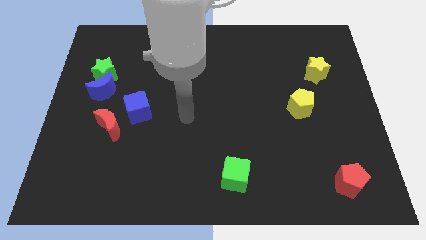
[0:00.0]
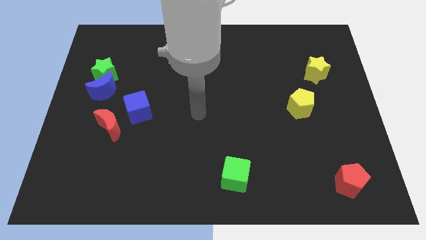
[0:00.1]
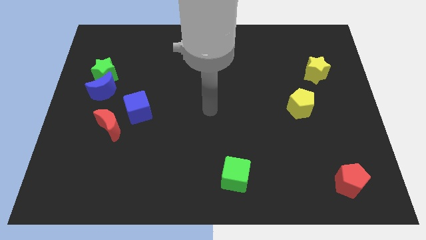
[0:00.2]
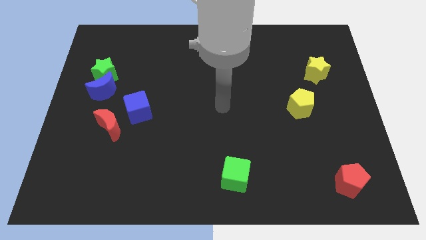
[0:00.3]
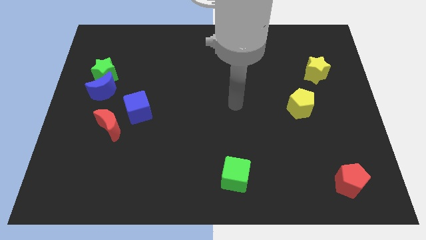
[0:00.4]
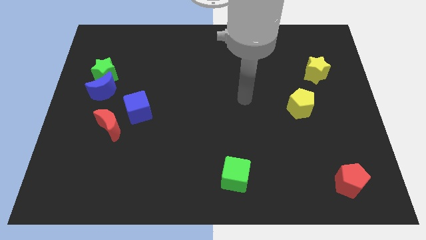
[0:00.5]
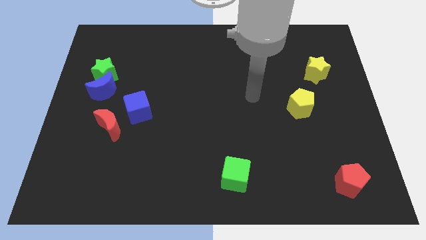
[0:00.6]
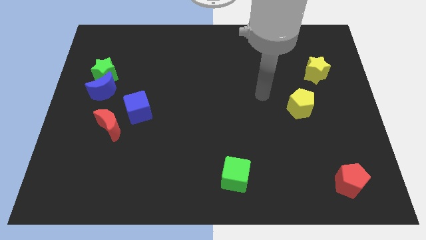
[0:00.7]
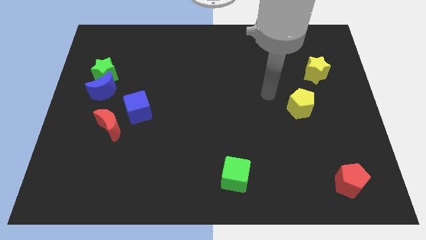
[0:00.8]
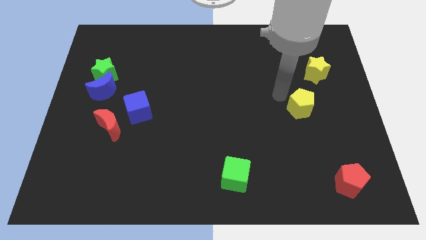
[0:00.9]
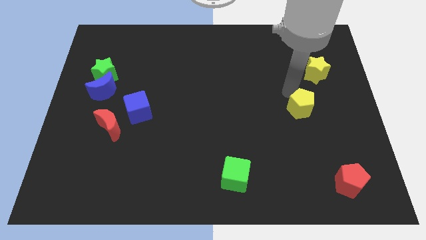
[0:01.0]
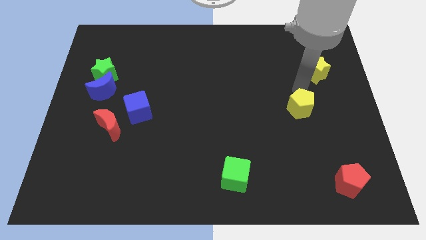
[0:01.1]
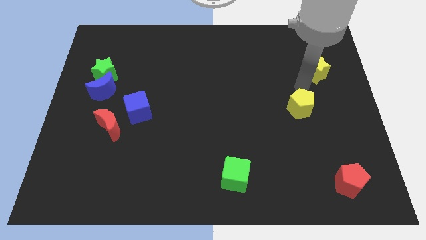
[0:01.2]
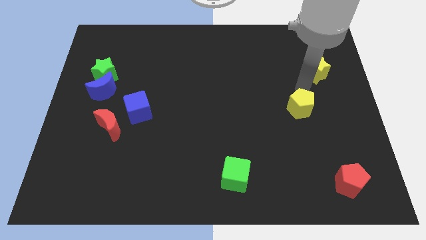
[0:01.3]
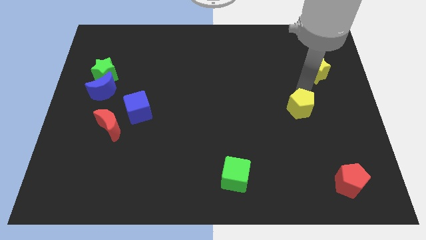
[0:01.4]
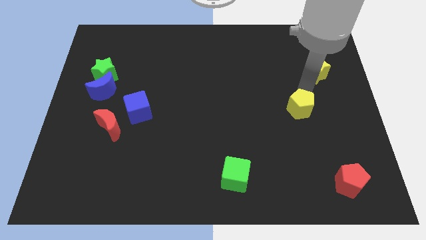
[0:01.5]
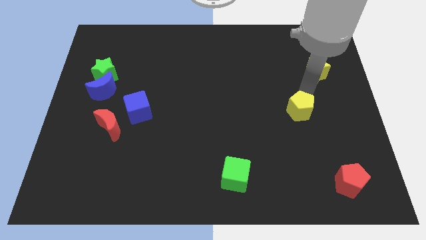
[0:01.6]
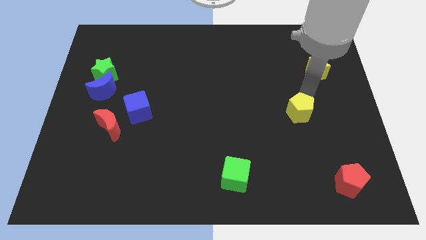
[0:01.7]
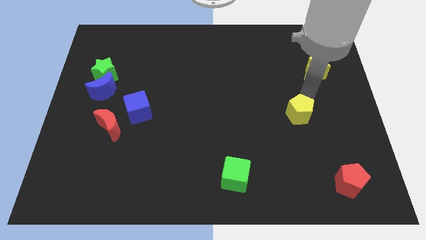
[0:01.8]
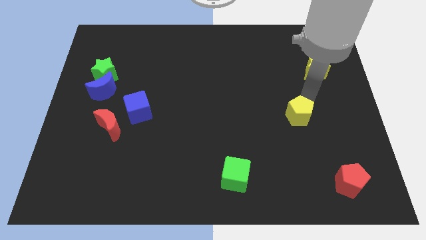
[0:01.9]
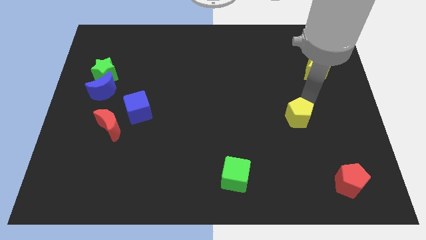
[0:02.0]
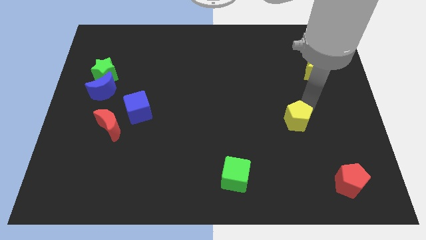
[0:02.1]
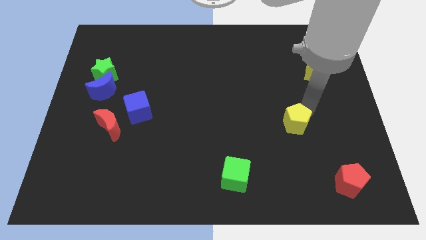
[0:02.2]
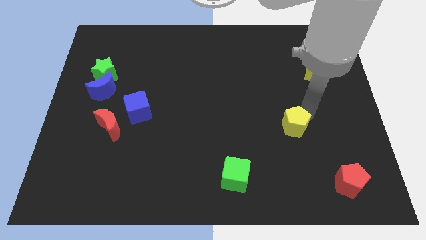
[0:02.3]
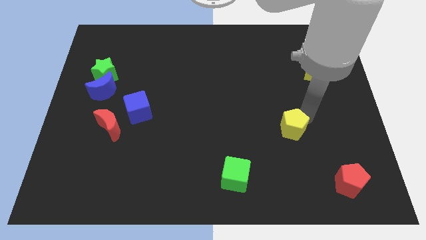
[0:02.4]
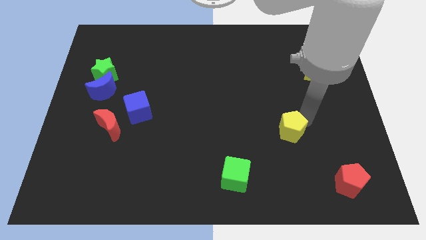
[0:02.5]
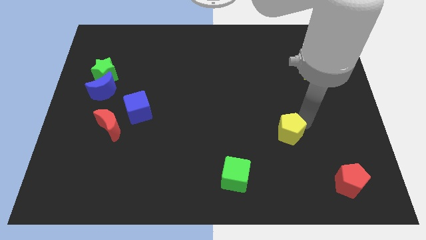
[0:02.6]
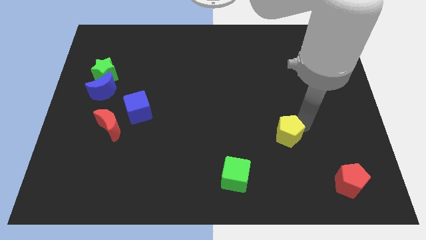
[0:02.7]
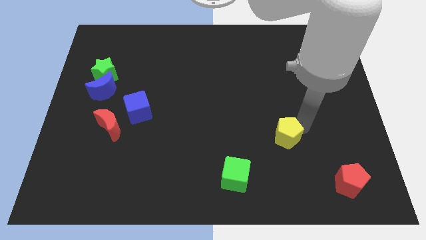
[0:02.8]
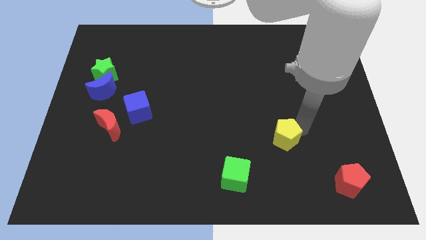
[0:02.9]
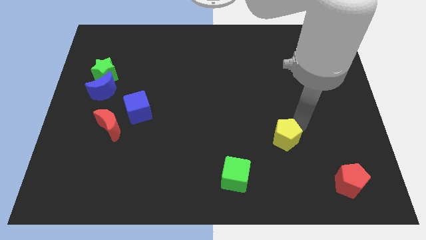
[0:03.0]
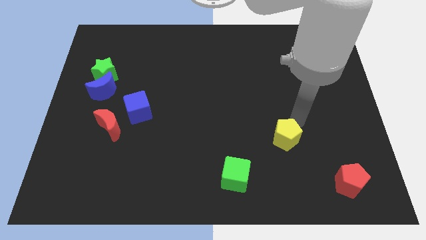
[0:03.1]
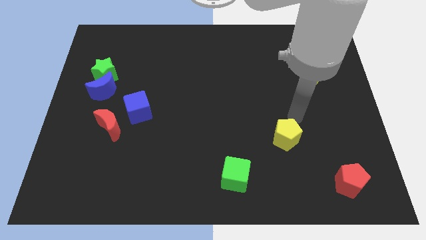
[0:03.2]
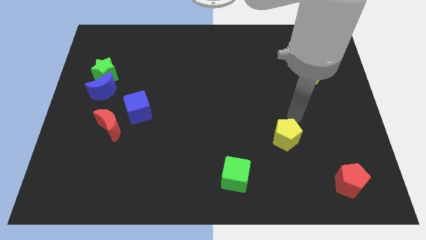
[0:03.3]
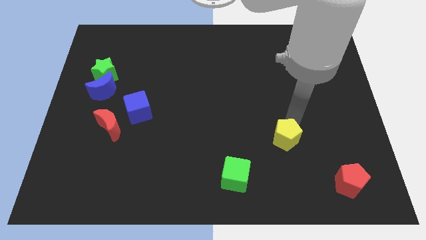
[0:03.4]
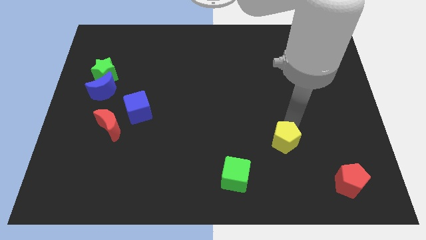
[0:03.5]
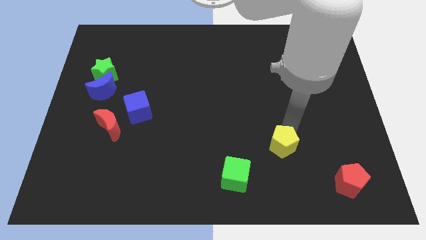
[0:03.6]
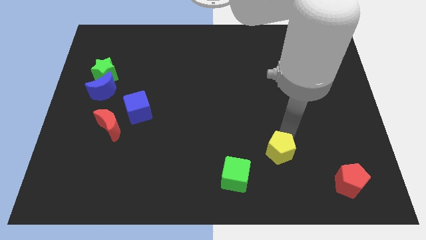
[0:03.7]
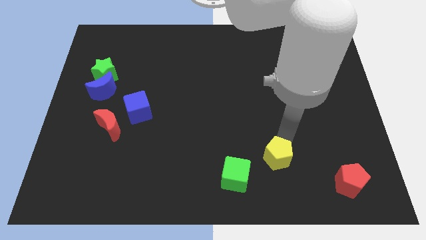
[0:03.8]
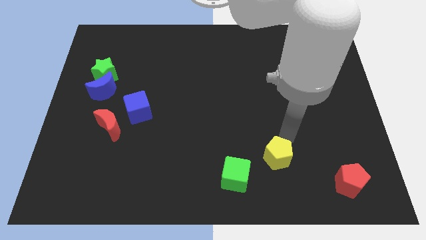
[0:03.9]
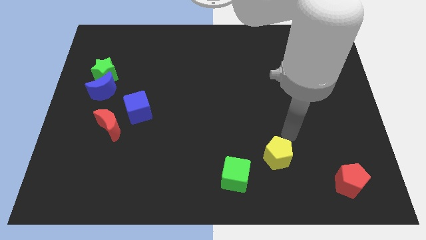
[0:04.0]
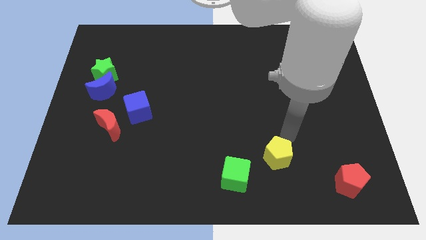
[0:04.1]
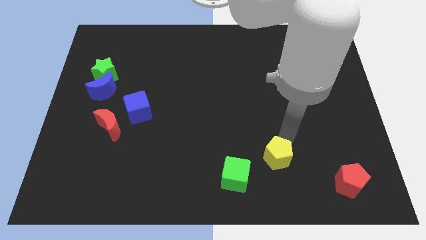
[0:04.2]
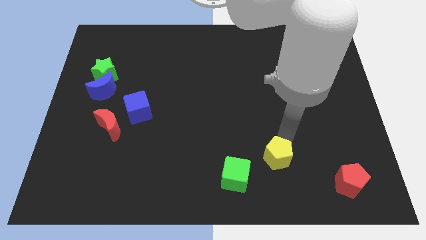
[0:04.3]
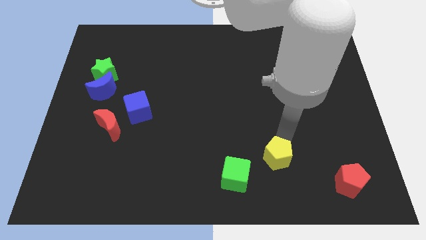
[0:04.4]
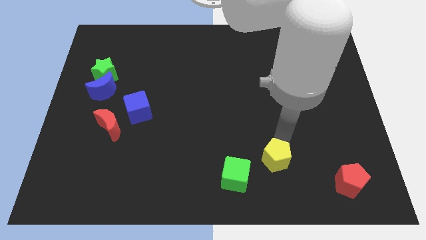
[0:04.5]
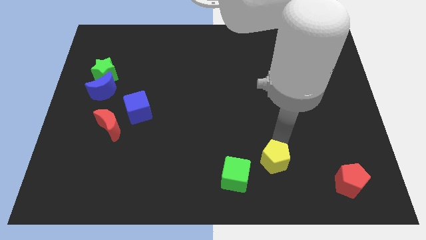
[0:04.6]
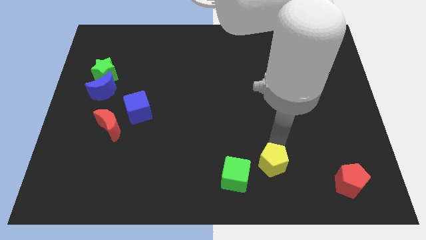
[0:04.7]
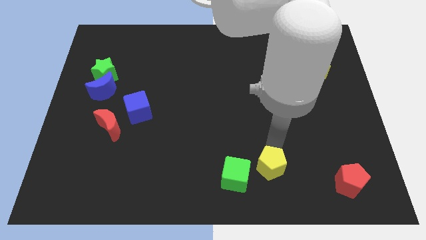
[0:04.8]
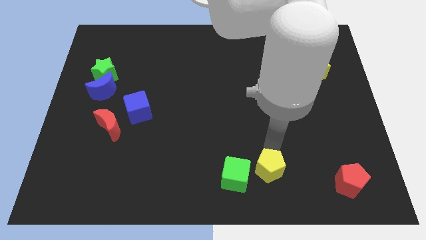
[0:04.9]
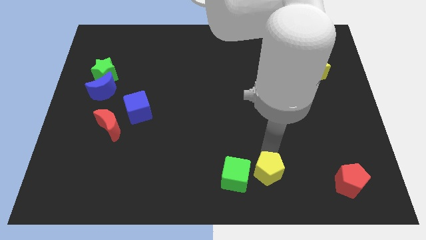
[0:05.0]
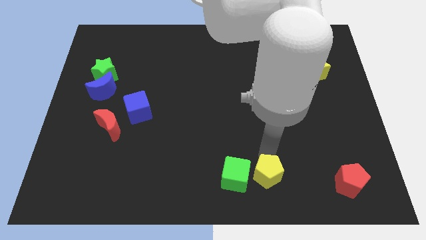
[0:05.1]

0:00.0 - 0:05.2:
slide the yellow pentagon to the bottom side

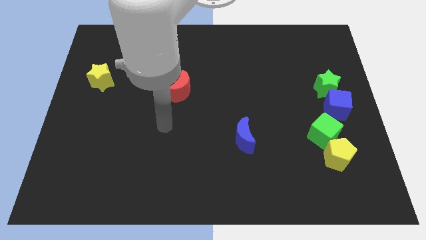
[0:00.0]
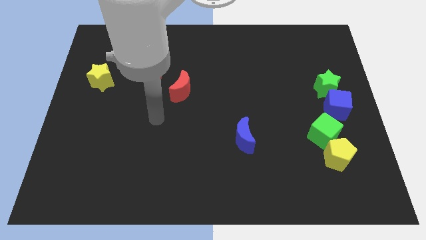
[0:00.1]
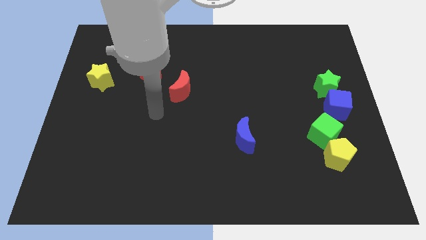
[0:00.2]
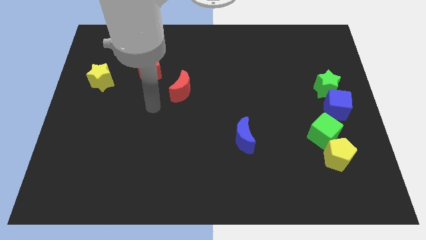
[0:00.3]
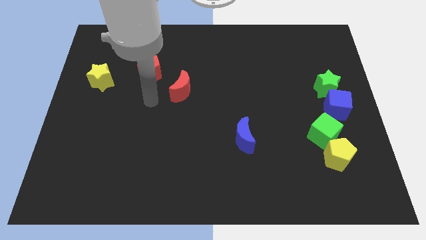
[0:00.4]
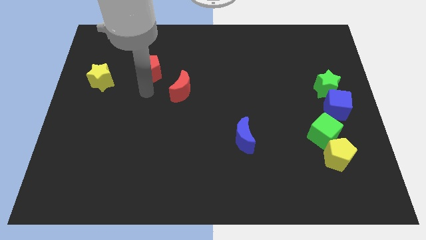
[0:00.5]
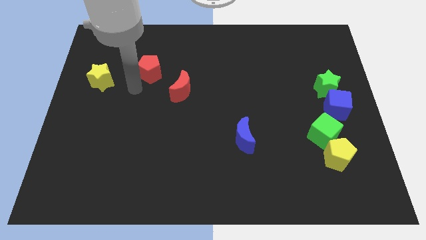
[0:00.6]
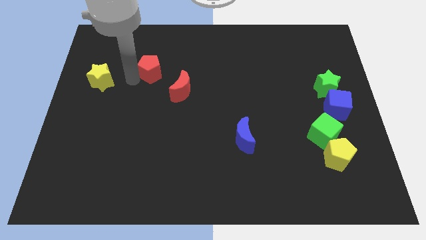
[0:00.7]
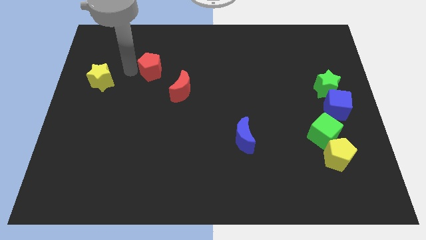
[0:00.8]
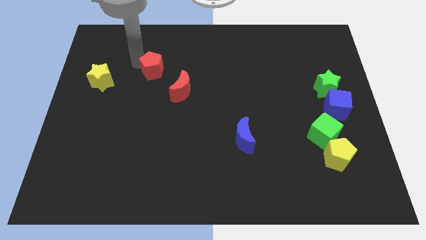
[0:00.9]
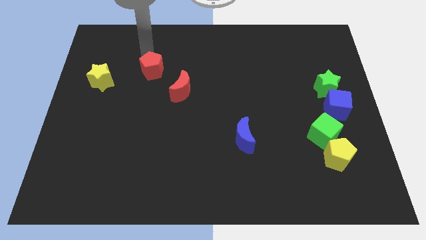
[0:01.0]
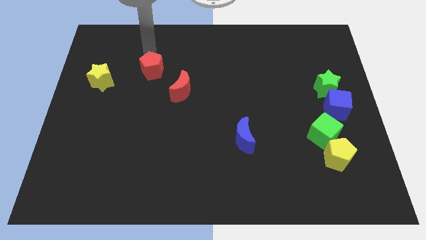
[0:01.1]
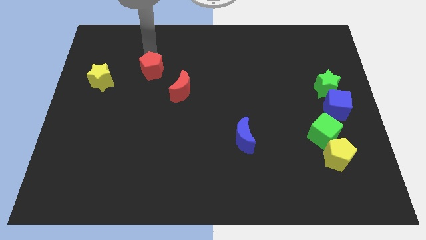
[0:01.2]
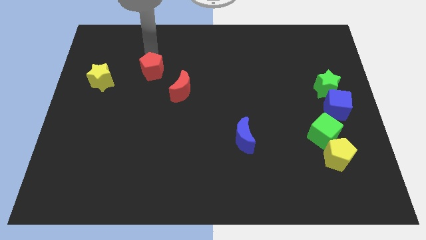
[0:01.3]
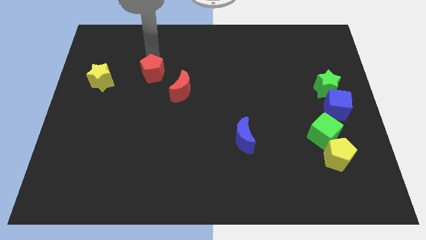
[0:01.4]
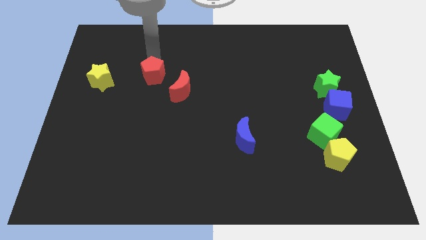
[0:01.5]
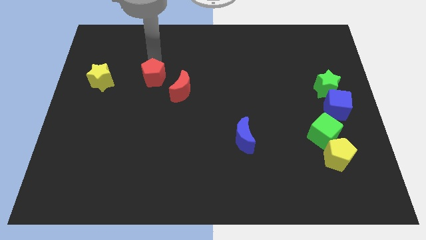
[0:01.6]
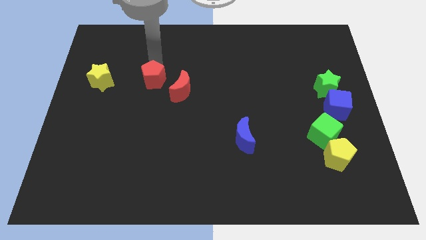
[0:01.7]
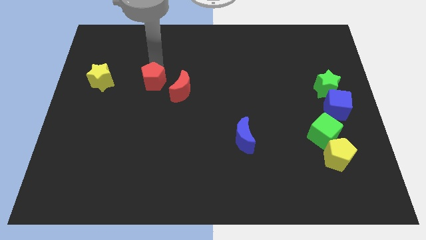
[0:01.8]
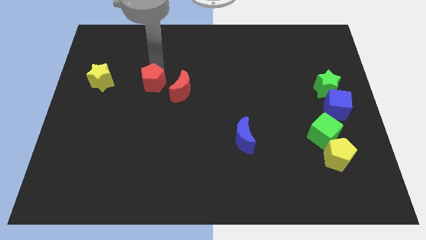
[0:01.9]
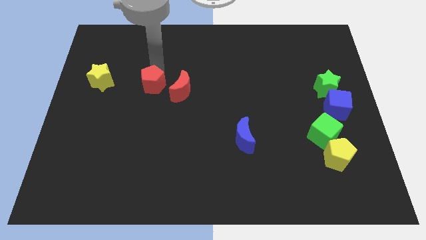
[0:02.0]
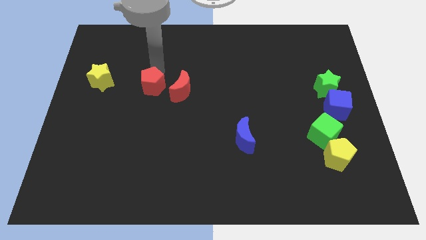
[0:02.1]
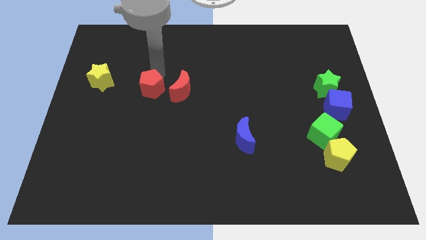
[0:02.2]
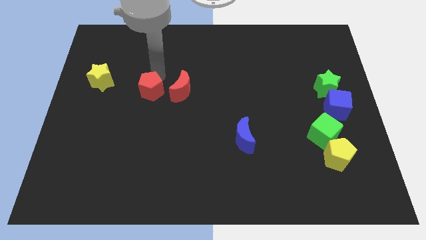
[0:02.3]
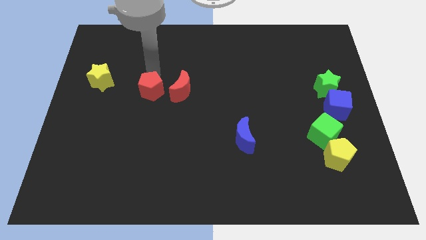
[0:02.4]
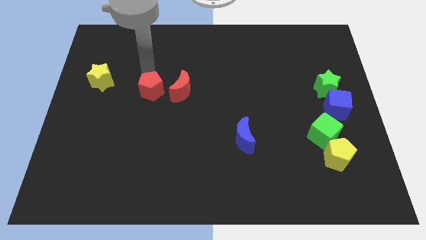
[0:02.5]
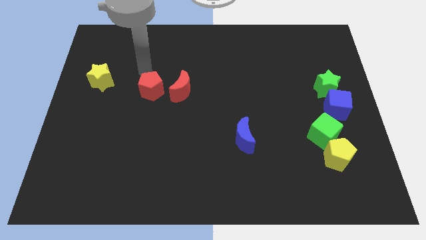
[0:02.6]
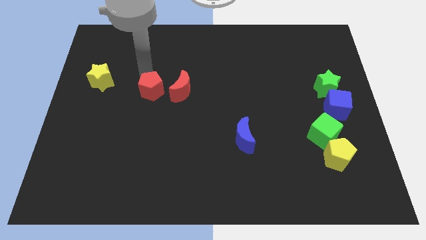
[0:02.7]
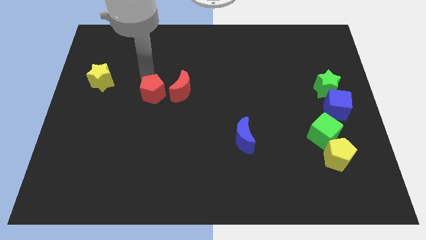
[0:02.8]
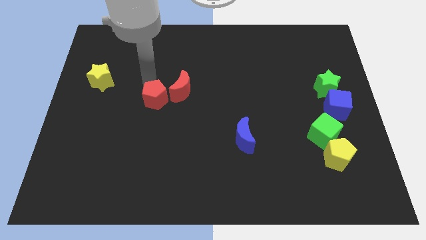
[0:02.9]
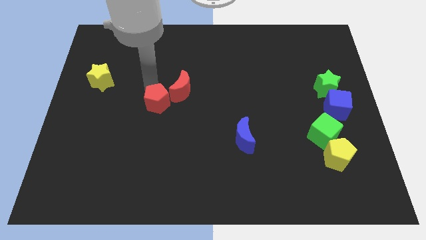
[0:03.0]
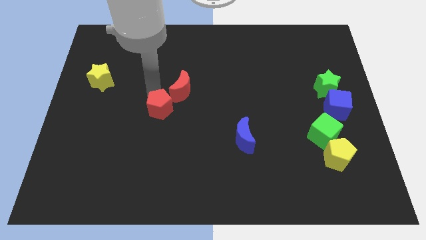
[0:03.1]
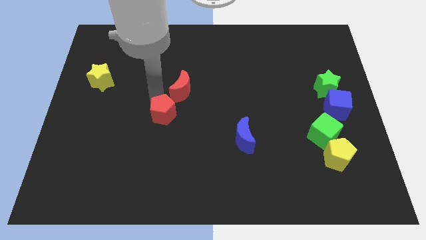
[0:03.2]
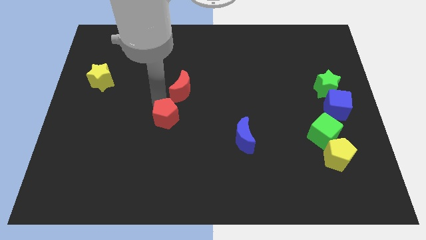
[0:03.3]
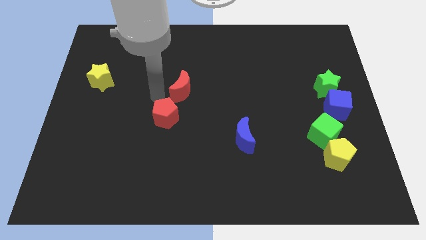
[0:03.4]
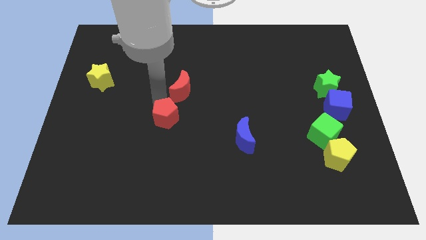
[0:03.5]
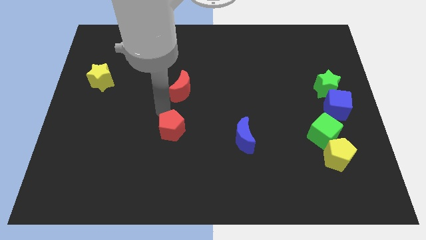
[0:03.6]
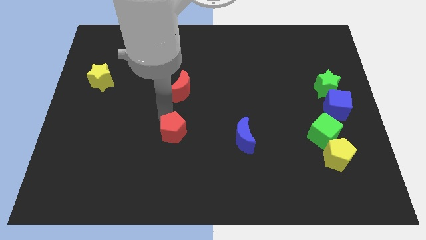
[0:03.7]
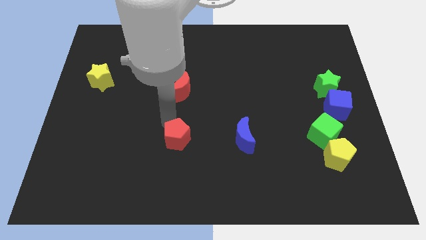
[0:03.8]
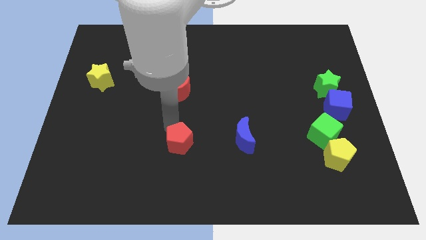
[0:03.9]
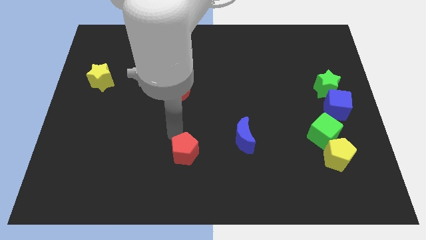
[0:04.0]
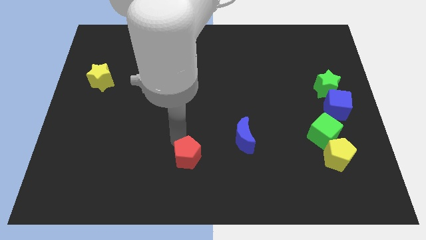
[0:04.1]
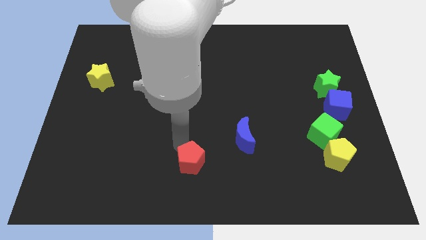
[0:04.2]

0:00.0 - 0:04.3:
put the red pentagon to the bottom
